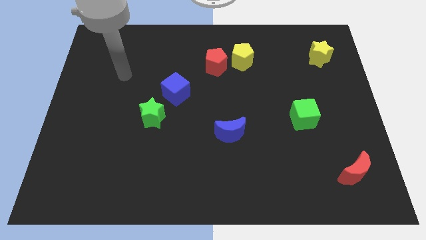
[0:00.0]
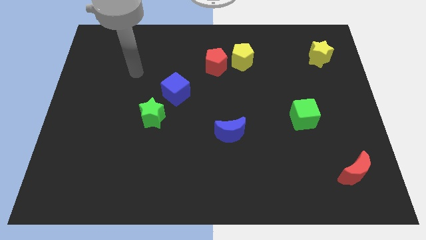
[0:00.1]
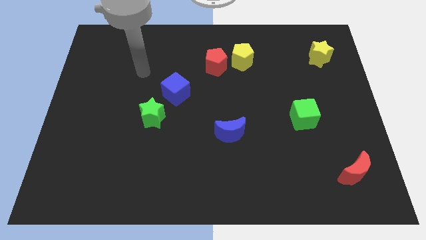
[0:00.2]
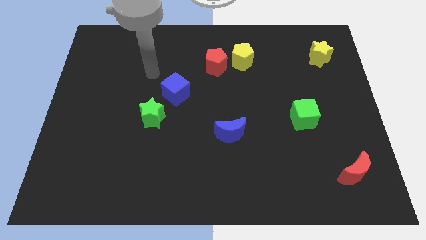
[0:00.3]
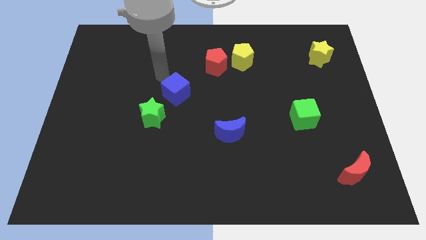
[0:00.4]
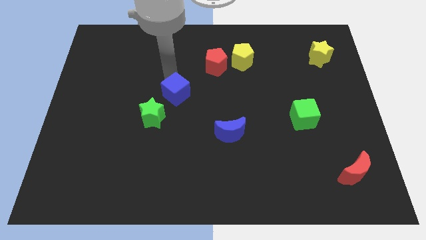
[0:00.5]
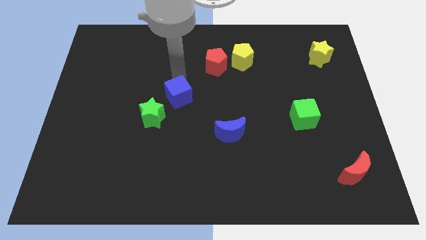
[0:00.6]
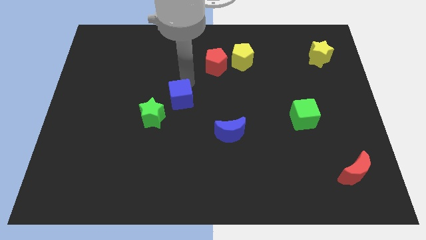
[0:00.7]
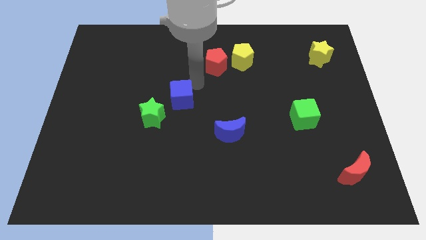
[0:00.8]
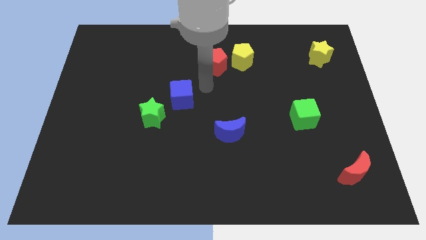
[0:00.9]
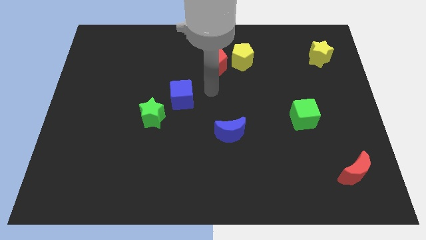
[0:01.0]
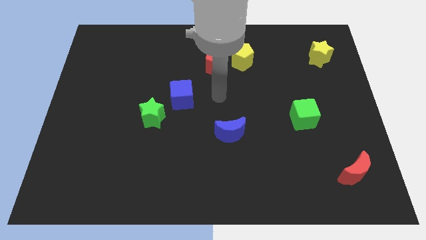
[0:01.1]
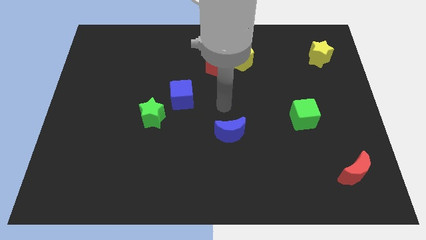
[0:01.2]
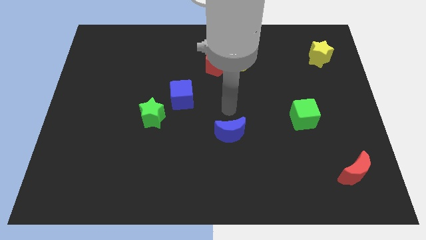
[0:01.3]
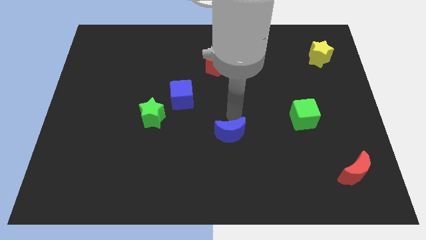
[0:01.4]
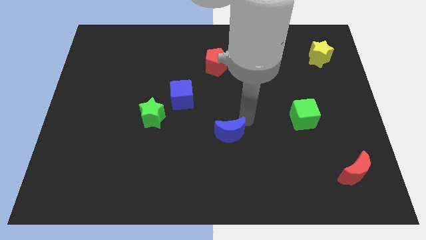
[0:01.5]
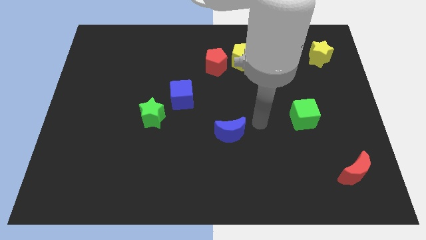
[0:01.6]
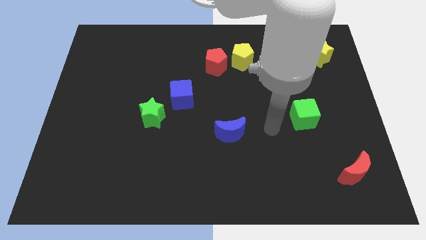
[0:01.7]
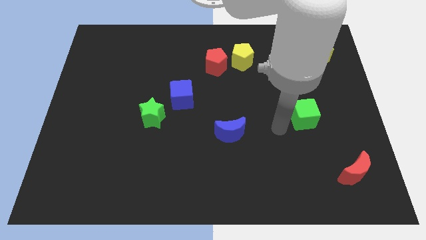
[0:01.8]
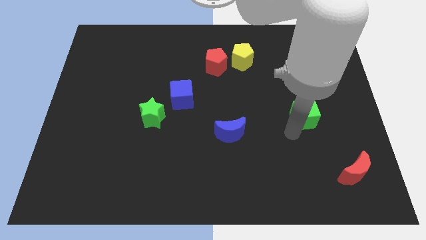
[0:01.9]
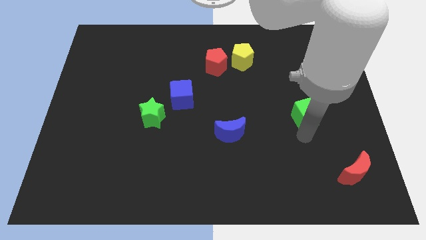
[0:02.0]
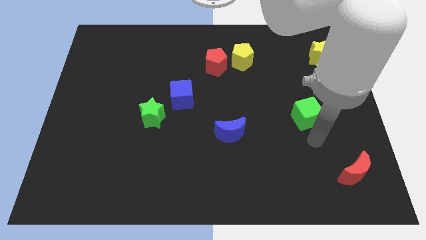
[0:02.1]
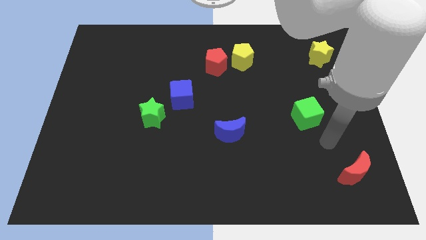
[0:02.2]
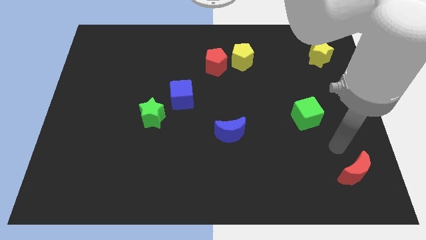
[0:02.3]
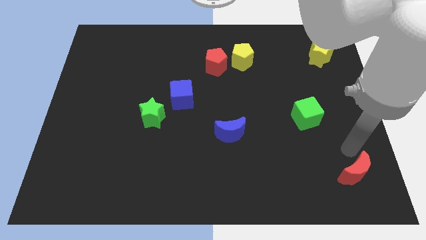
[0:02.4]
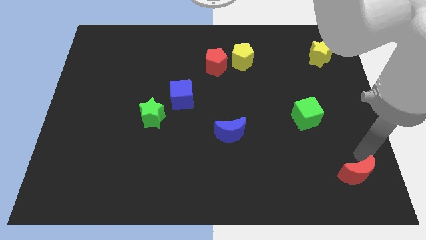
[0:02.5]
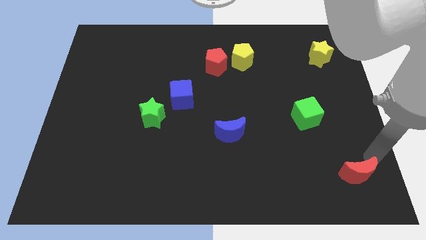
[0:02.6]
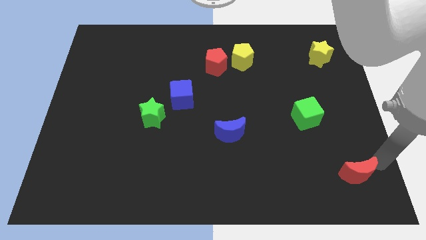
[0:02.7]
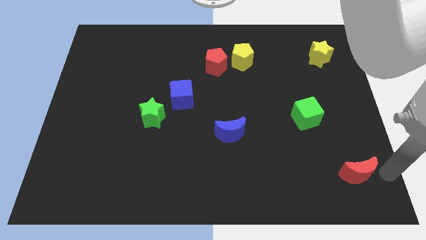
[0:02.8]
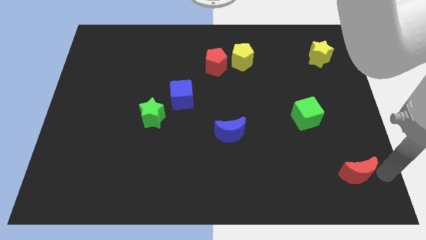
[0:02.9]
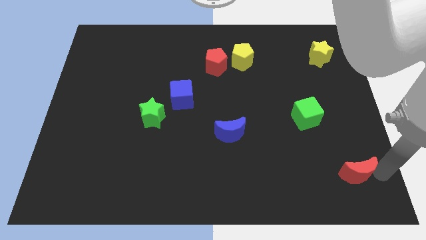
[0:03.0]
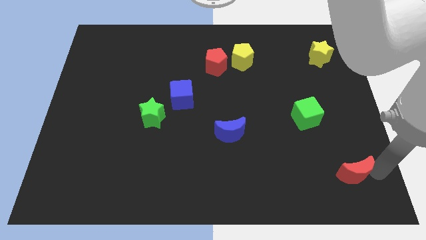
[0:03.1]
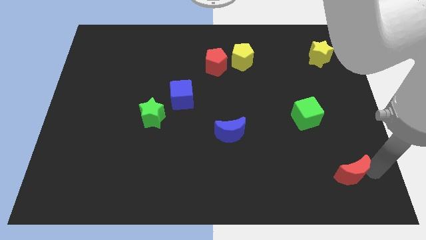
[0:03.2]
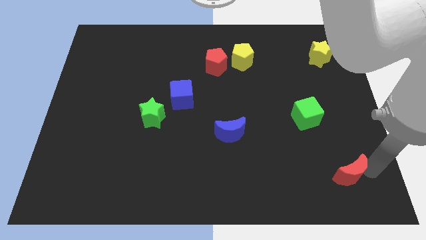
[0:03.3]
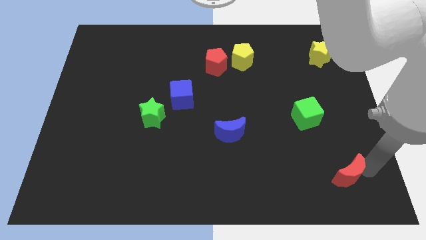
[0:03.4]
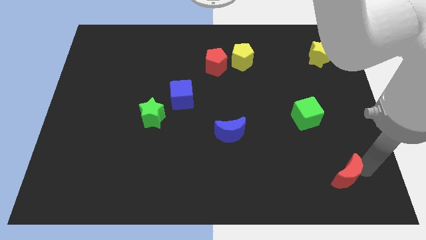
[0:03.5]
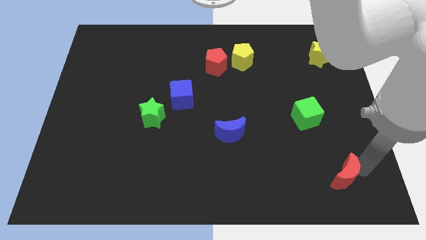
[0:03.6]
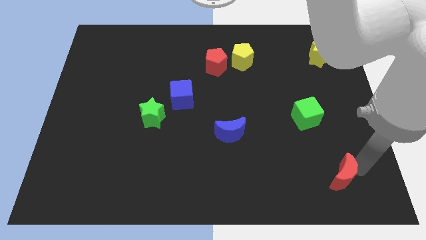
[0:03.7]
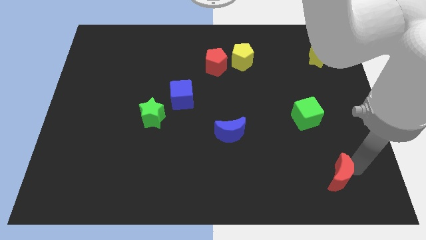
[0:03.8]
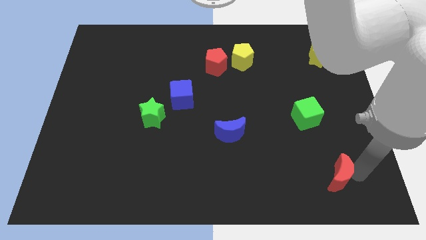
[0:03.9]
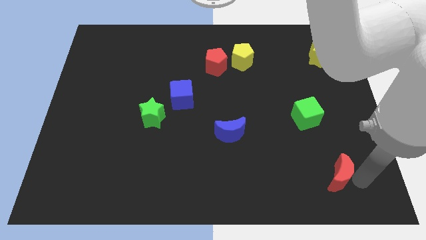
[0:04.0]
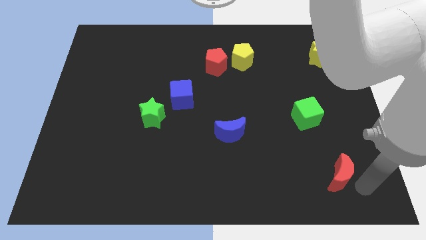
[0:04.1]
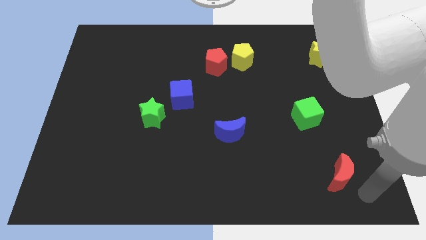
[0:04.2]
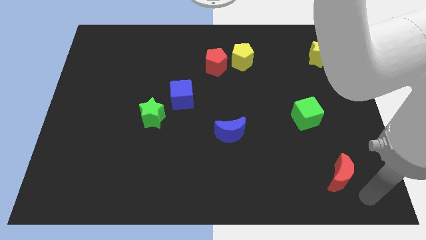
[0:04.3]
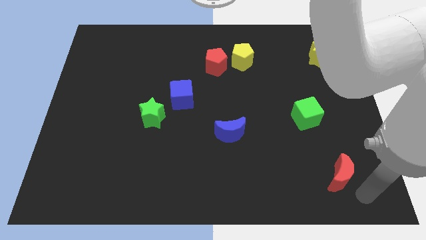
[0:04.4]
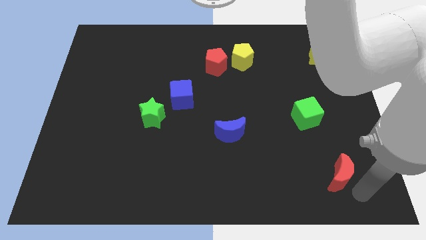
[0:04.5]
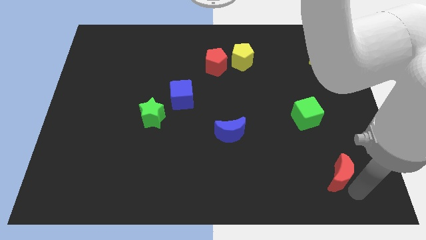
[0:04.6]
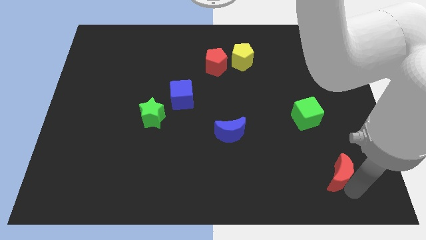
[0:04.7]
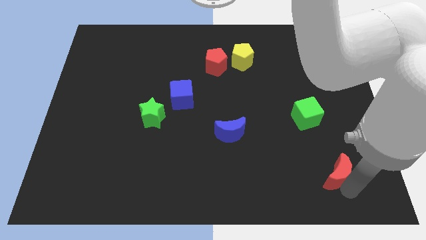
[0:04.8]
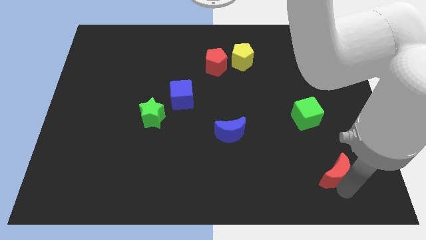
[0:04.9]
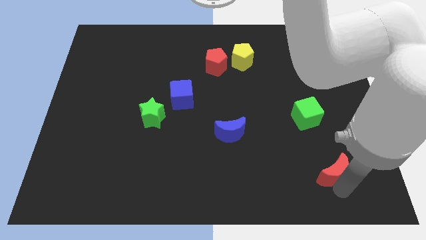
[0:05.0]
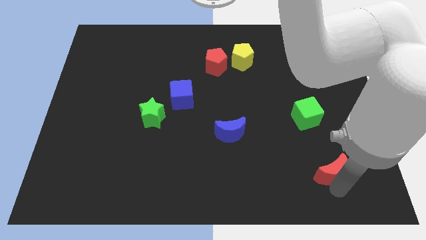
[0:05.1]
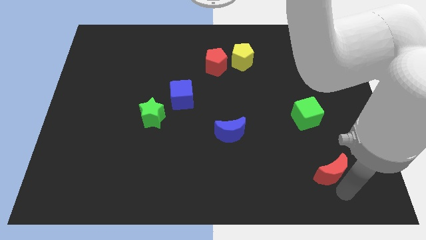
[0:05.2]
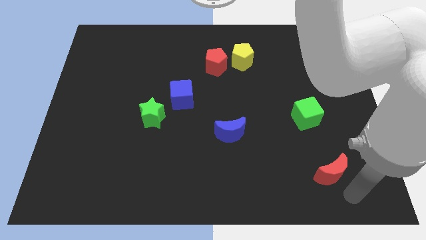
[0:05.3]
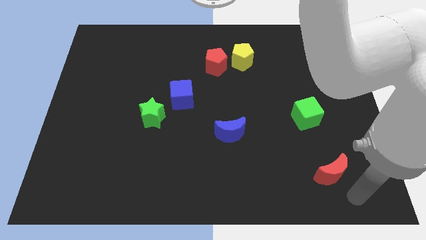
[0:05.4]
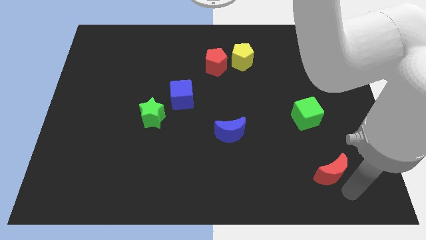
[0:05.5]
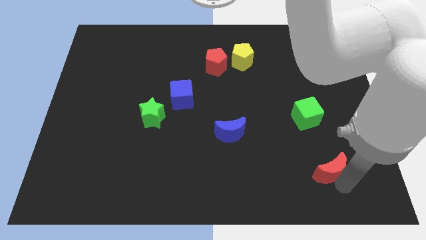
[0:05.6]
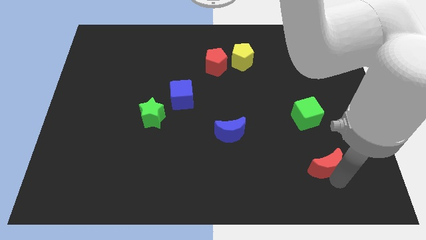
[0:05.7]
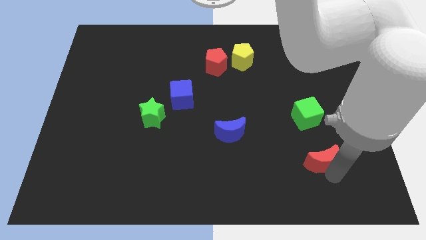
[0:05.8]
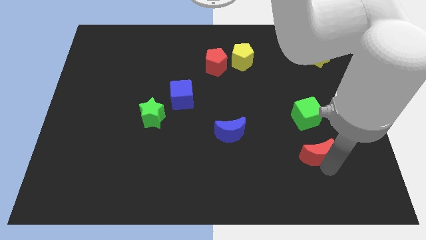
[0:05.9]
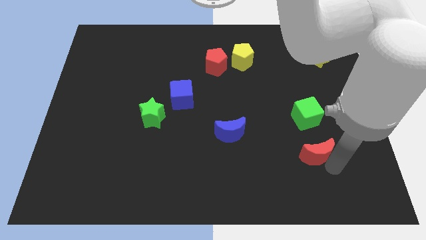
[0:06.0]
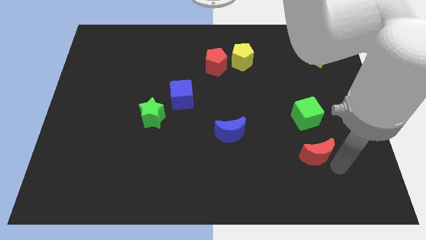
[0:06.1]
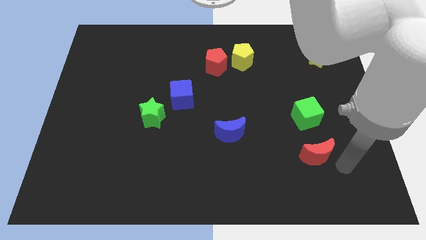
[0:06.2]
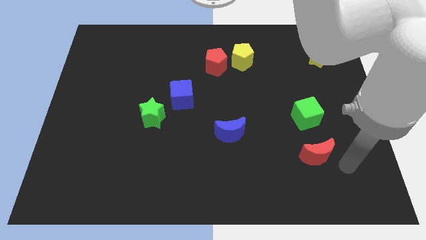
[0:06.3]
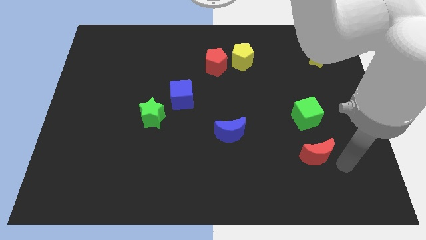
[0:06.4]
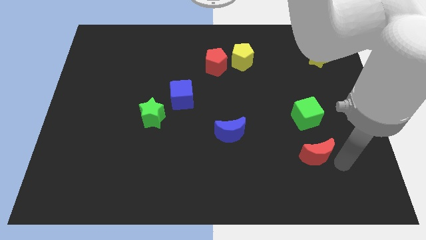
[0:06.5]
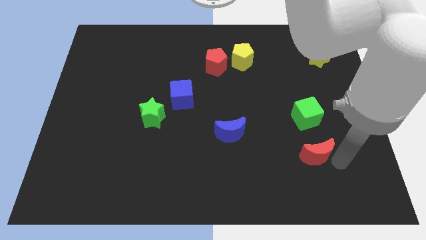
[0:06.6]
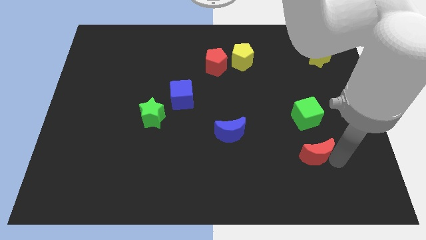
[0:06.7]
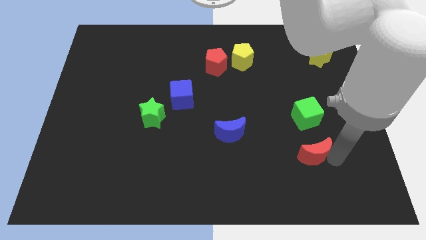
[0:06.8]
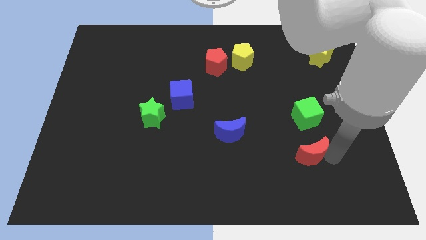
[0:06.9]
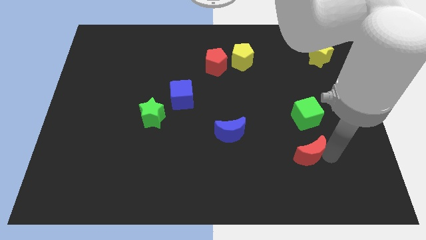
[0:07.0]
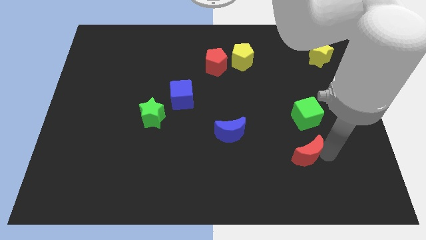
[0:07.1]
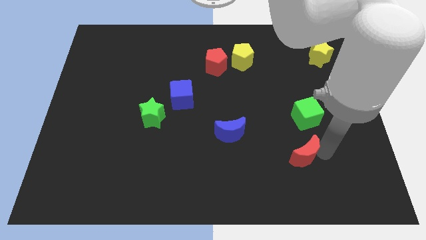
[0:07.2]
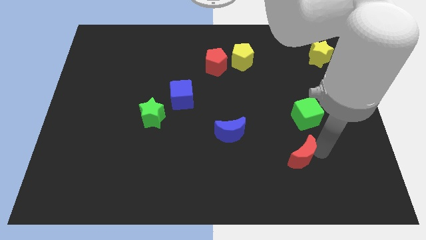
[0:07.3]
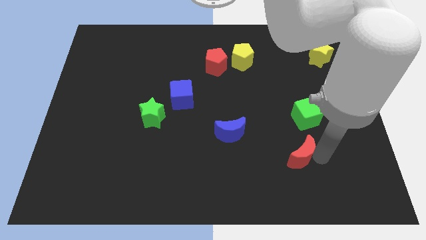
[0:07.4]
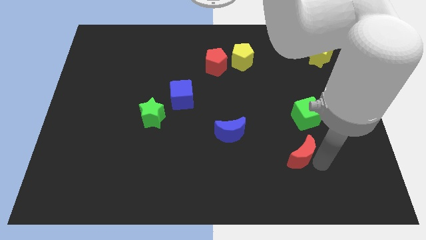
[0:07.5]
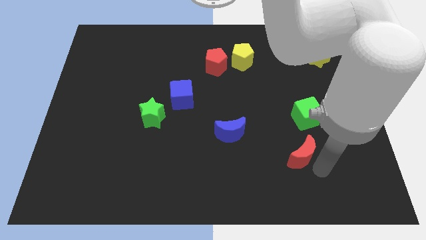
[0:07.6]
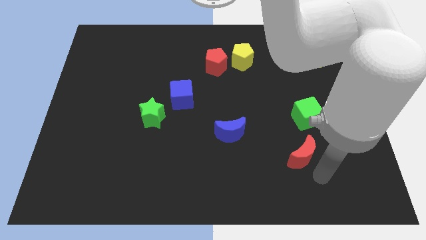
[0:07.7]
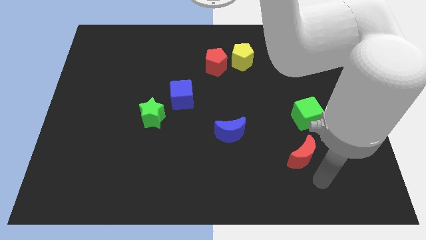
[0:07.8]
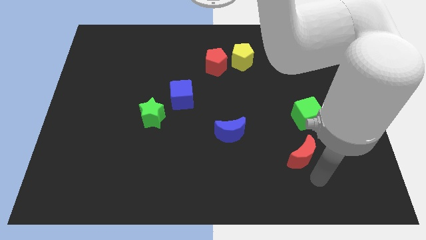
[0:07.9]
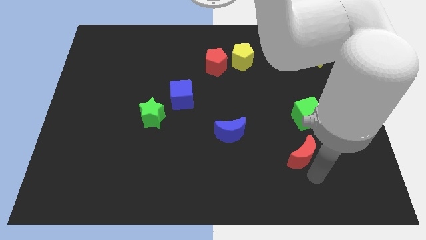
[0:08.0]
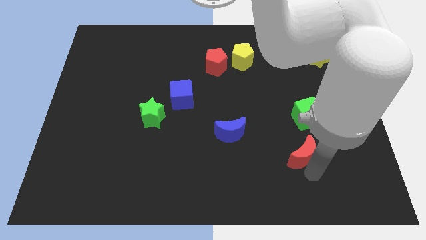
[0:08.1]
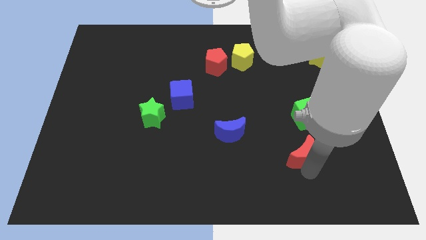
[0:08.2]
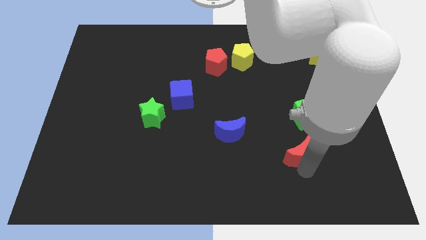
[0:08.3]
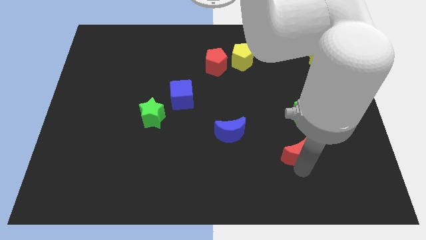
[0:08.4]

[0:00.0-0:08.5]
move the red moon to the bottom left of the green cube
